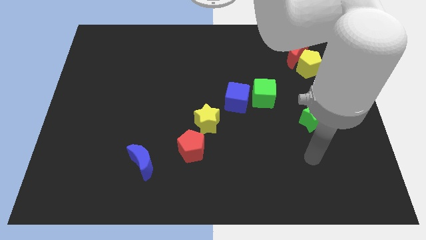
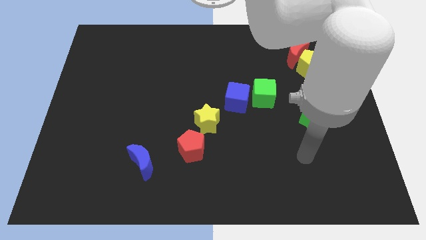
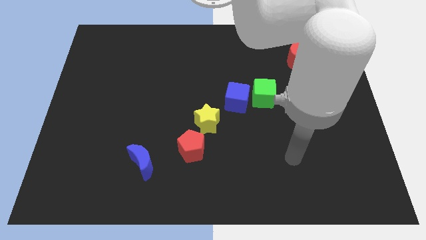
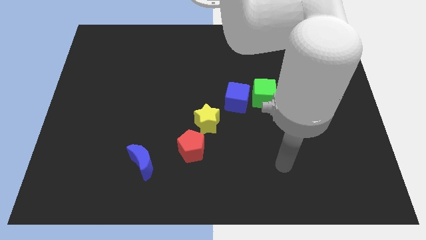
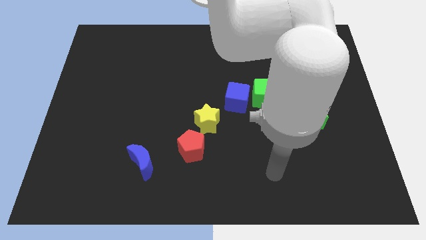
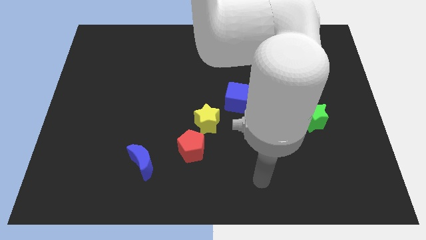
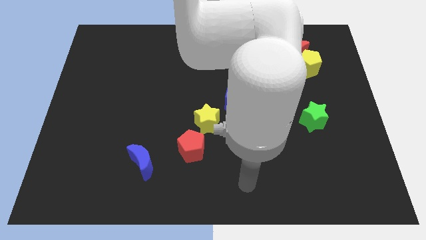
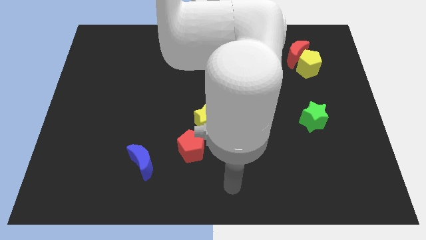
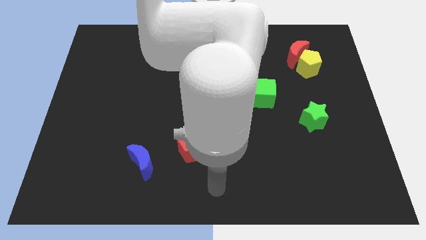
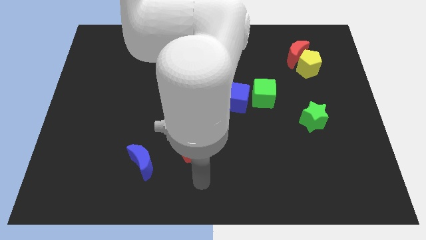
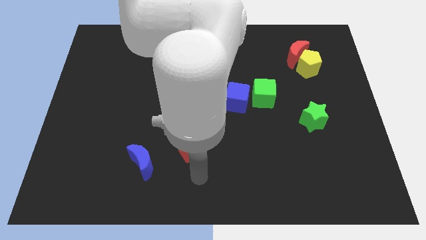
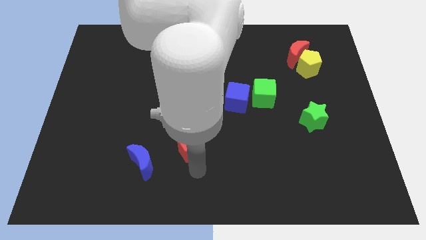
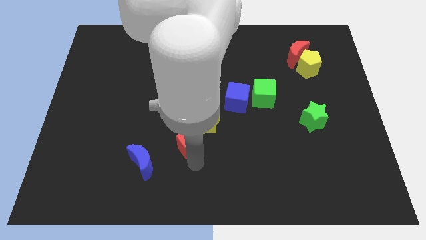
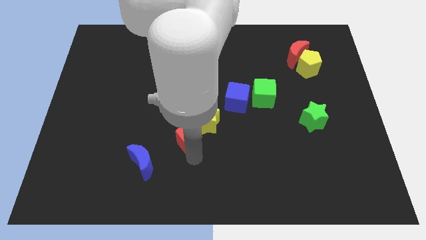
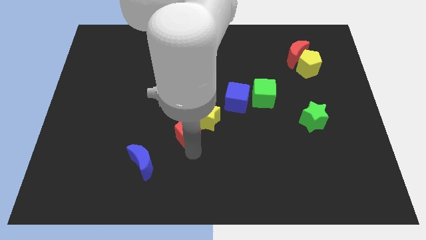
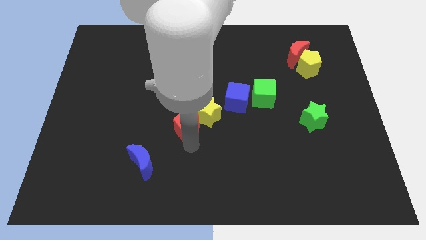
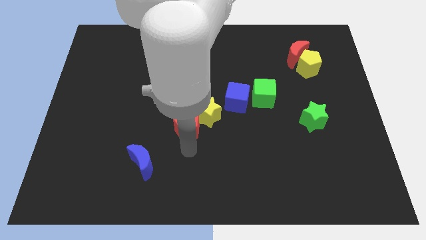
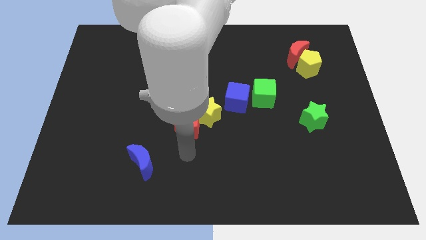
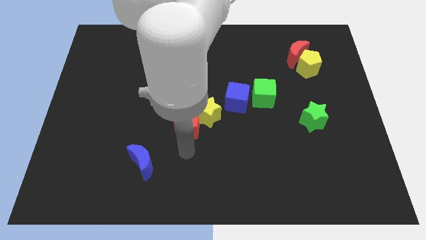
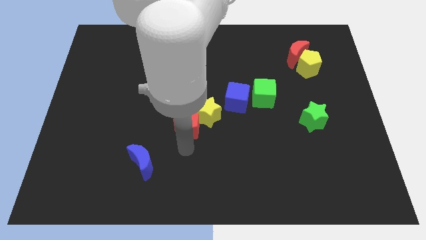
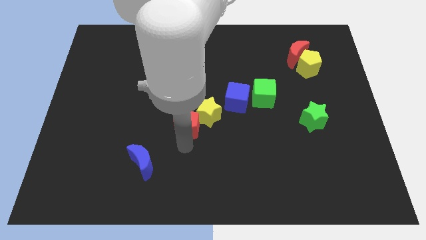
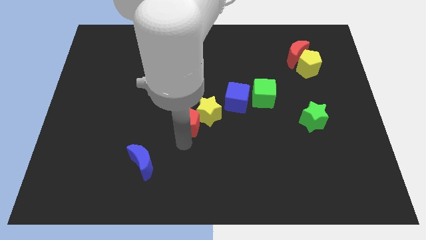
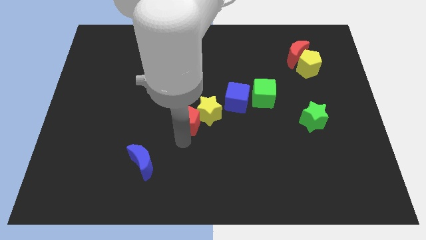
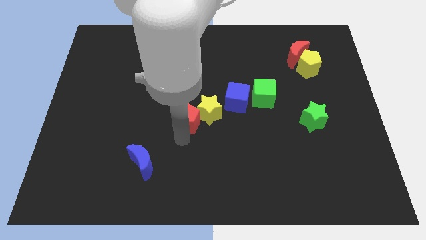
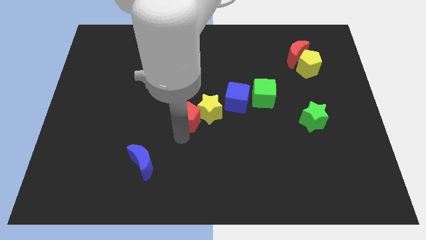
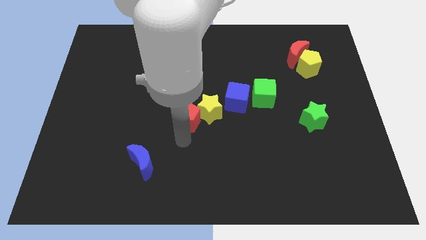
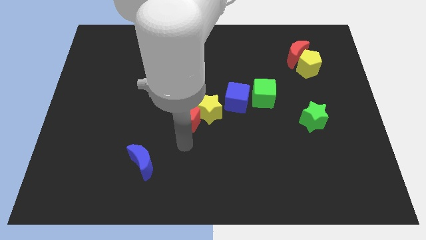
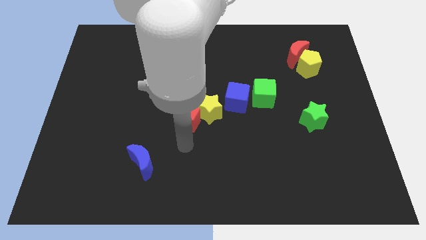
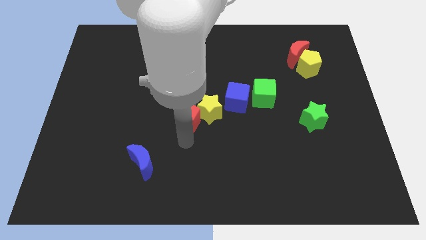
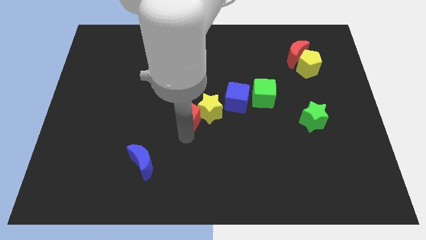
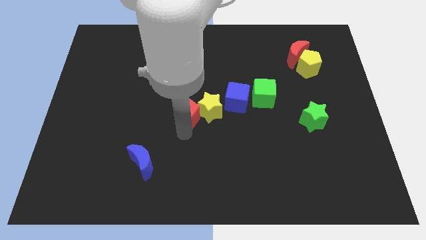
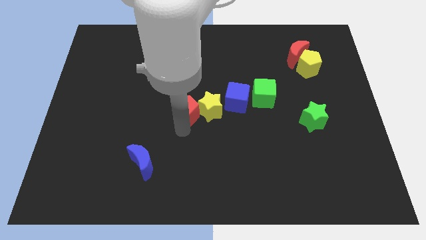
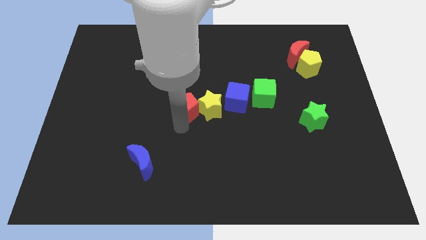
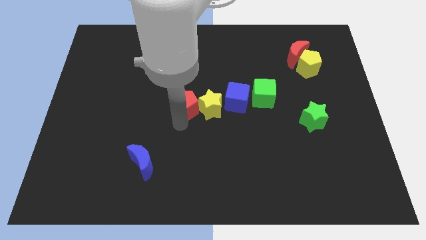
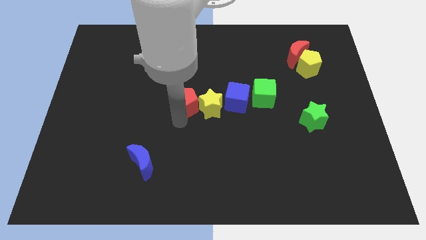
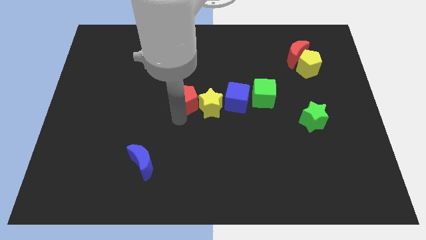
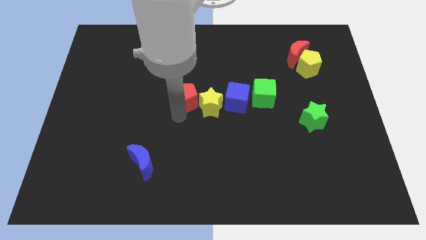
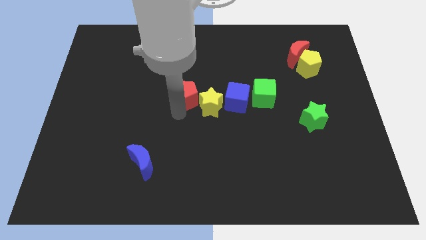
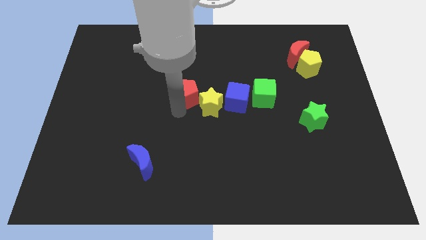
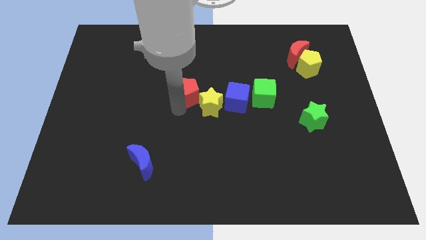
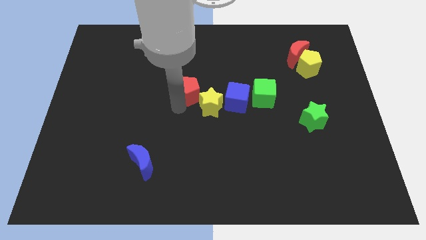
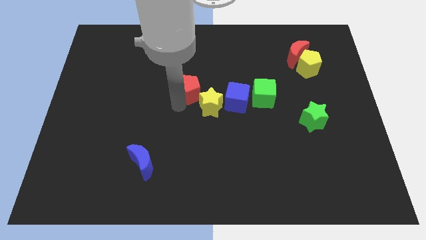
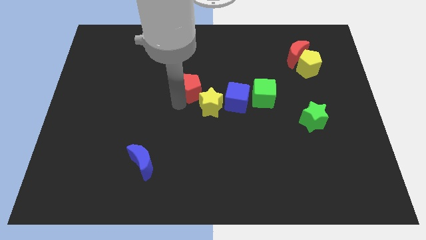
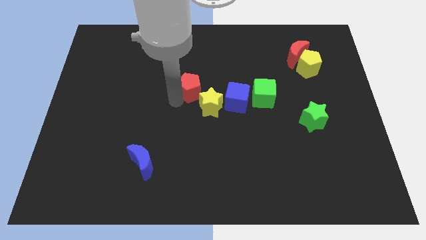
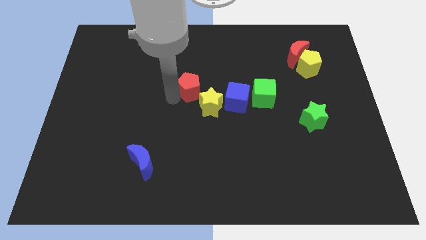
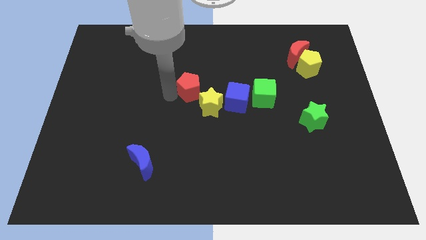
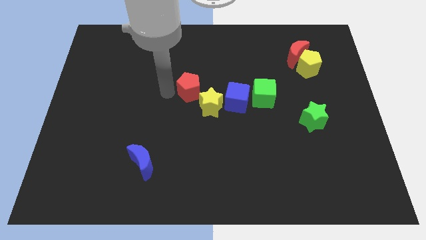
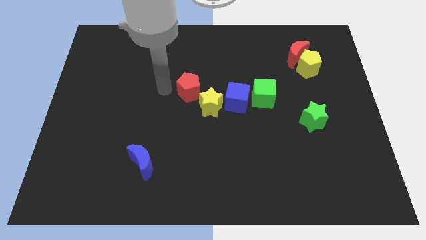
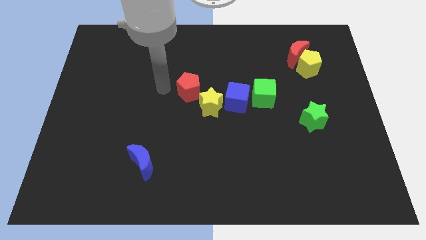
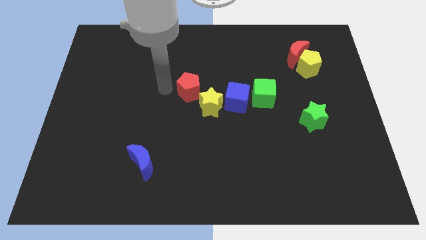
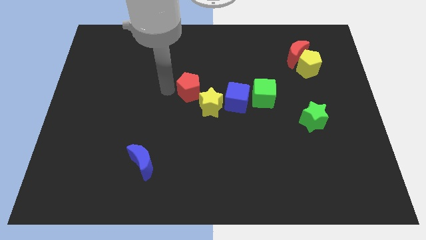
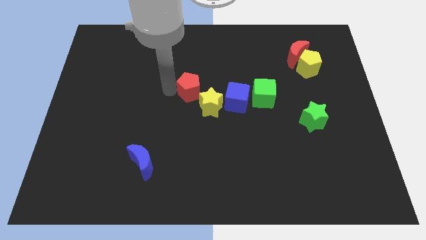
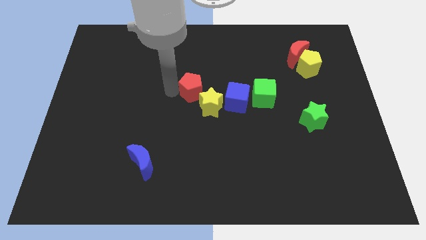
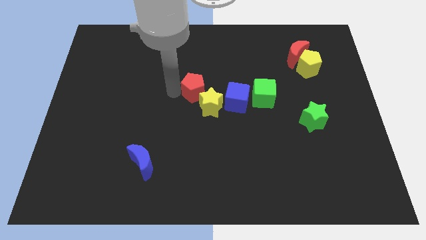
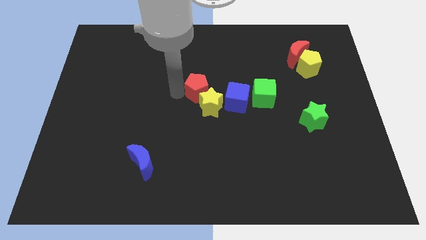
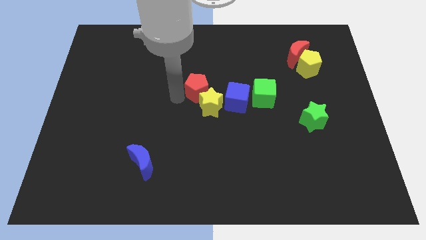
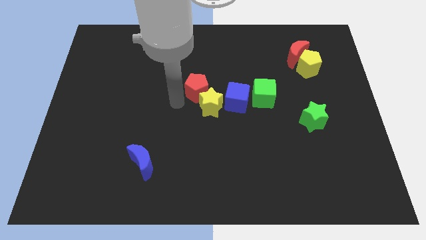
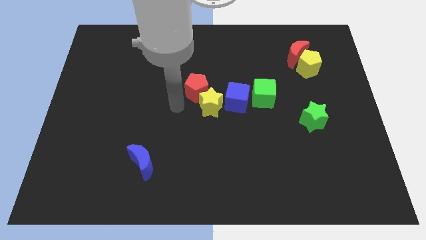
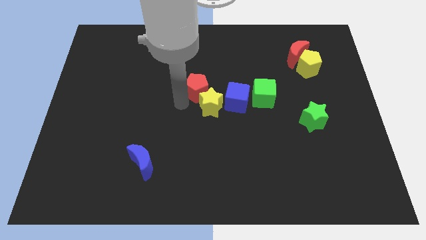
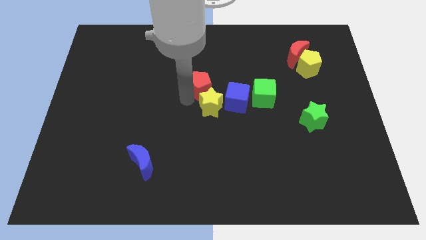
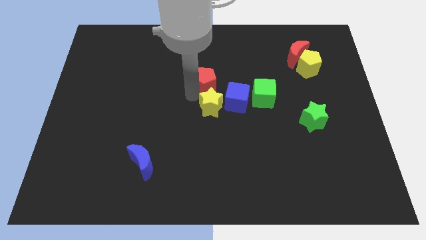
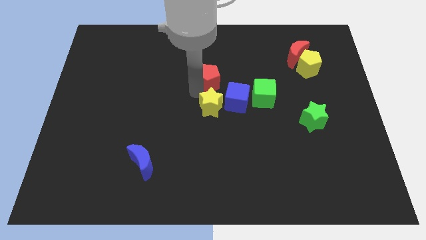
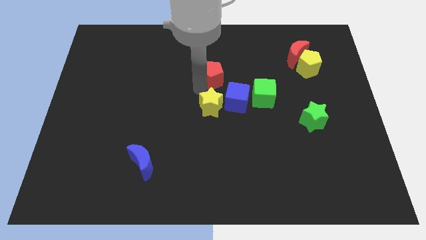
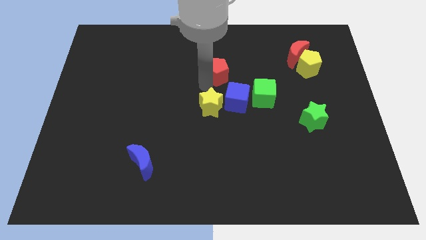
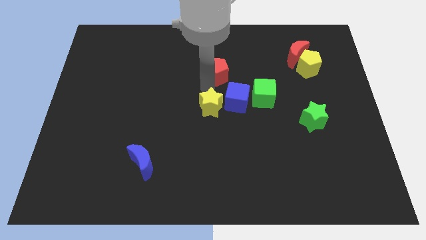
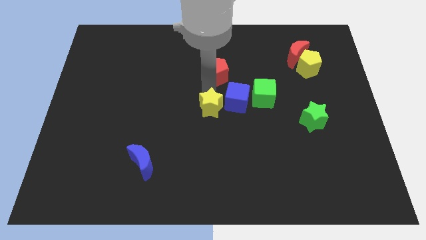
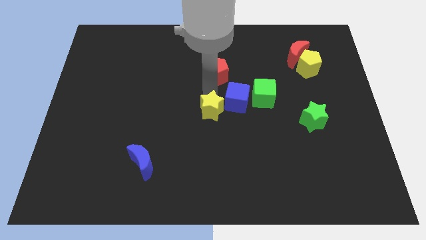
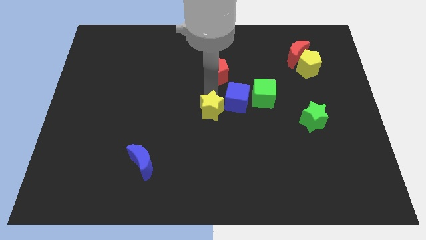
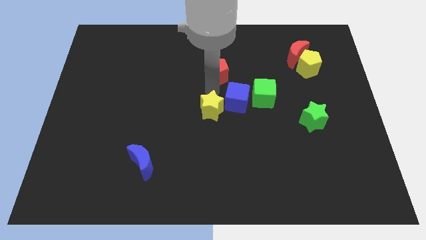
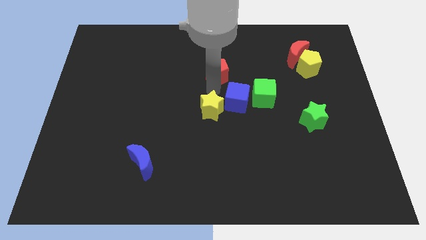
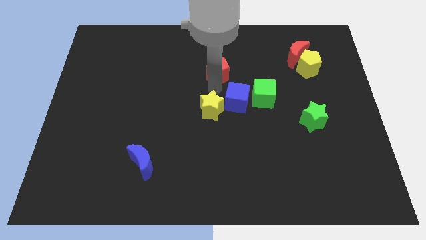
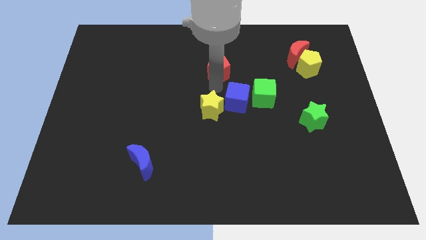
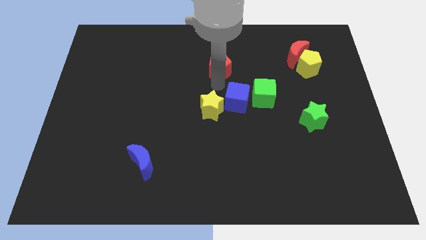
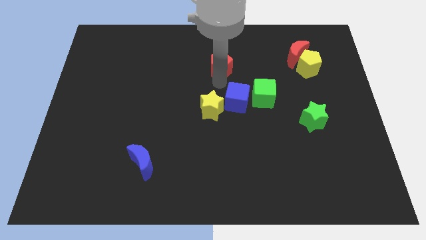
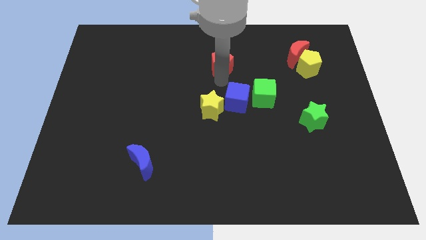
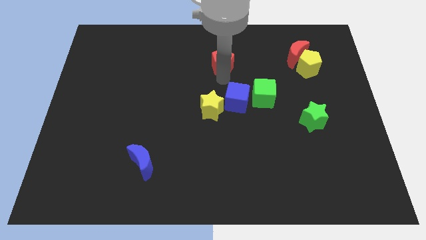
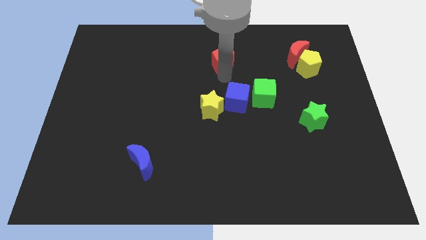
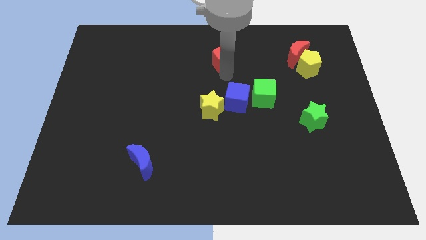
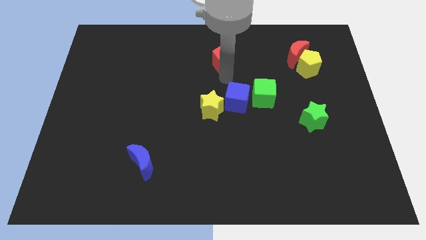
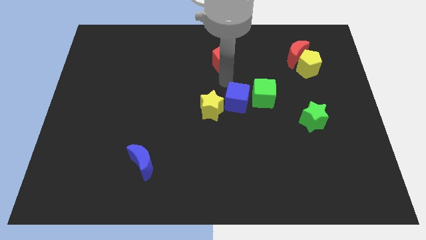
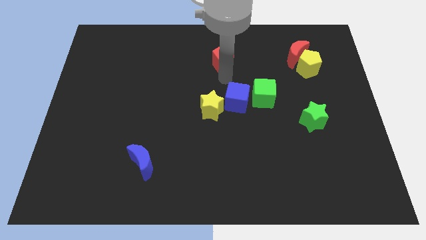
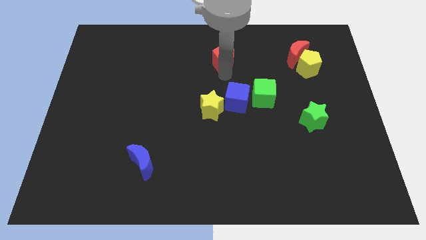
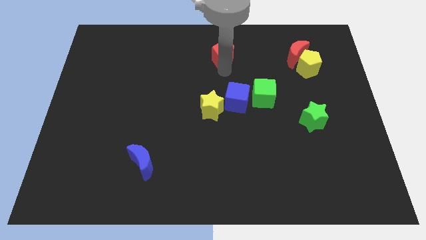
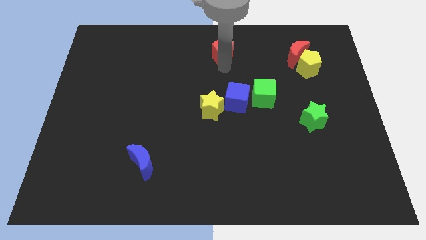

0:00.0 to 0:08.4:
push the red pentagon to the top side
